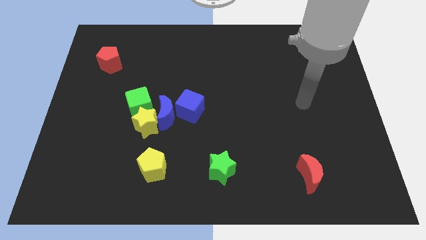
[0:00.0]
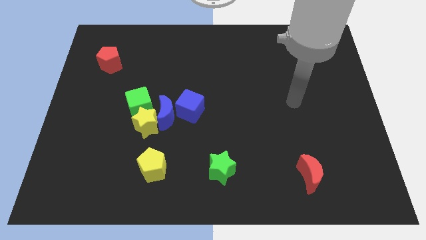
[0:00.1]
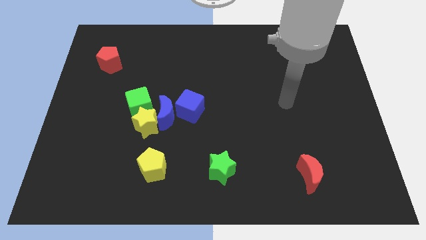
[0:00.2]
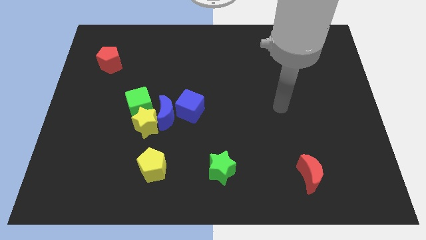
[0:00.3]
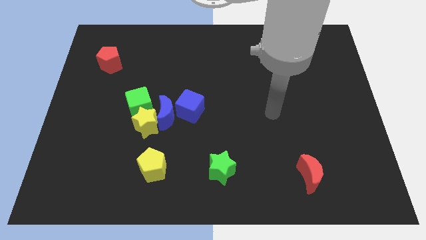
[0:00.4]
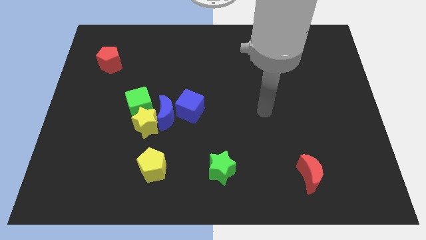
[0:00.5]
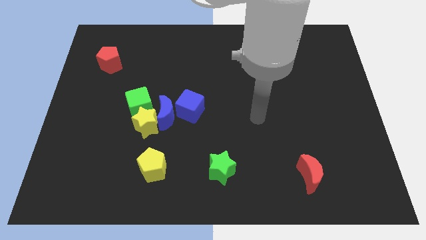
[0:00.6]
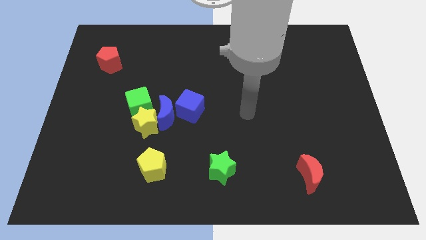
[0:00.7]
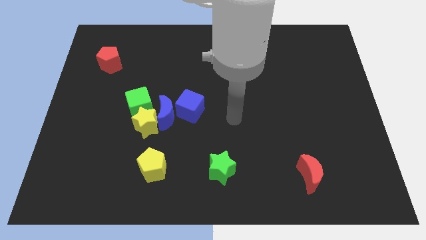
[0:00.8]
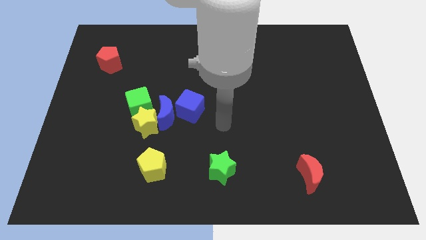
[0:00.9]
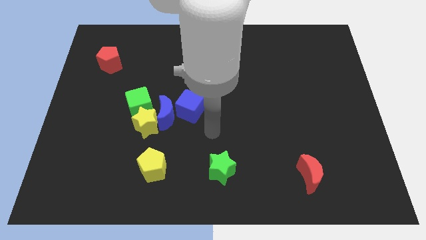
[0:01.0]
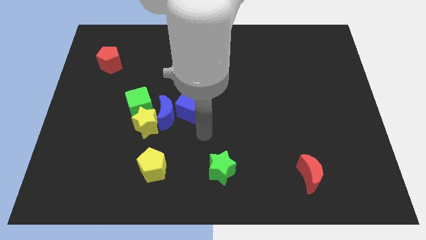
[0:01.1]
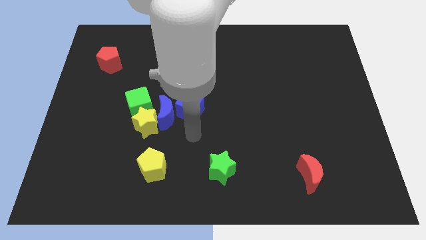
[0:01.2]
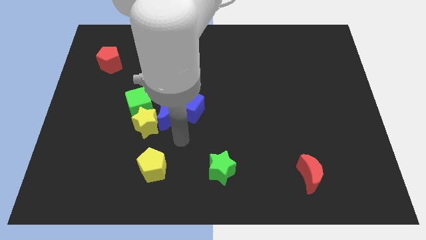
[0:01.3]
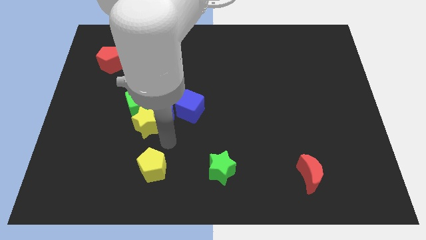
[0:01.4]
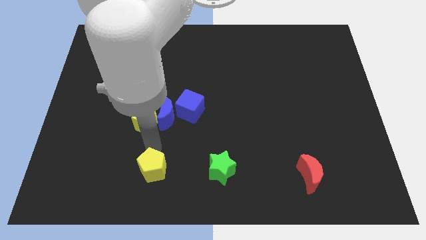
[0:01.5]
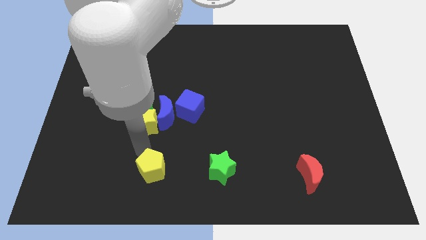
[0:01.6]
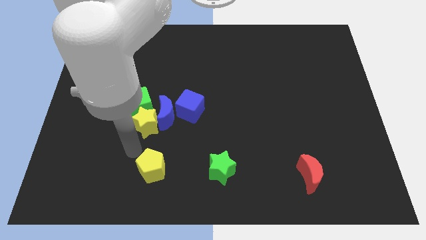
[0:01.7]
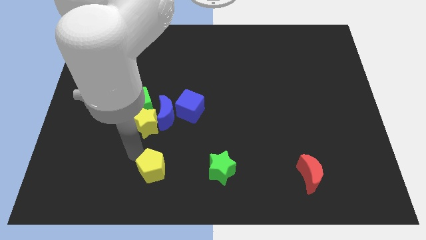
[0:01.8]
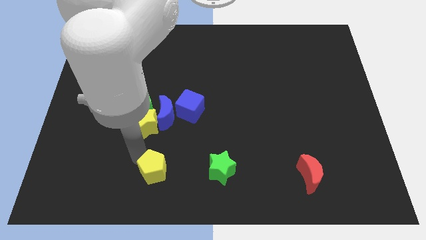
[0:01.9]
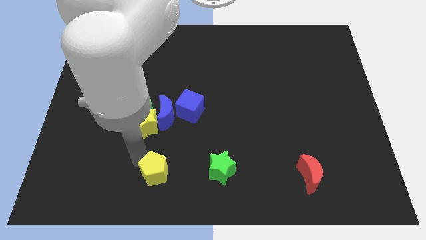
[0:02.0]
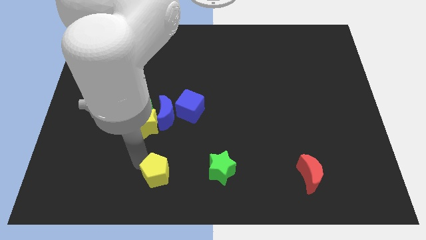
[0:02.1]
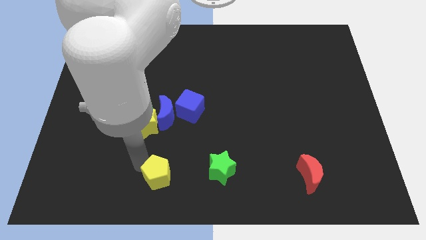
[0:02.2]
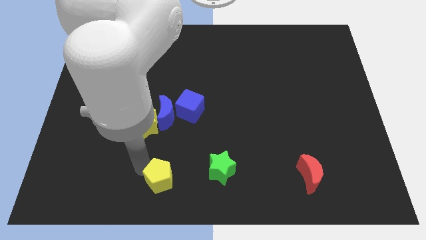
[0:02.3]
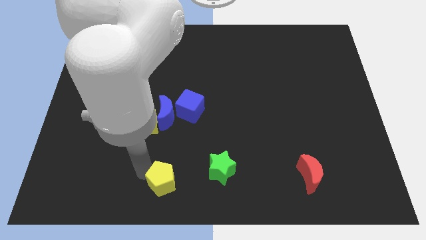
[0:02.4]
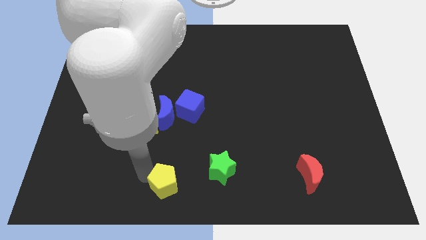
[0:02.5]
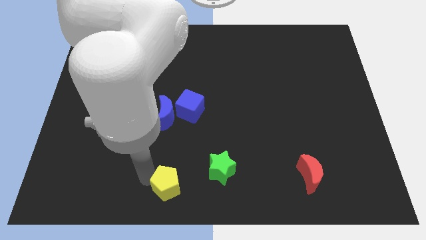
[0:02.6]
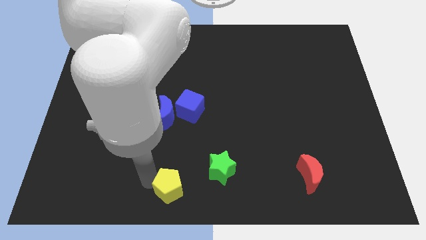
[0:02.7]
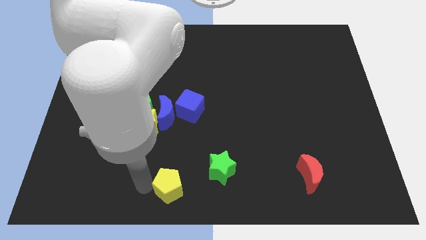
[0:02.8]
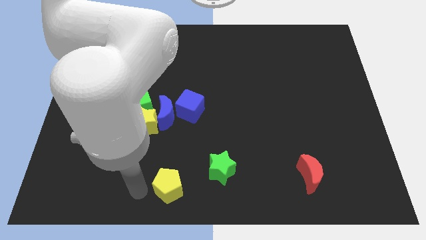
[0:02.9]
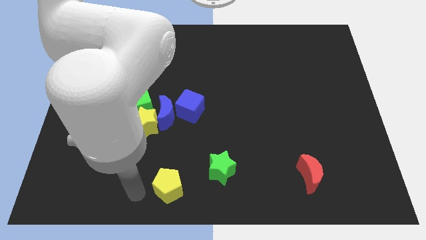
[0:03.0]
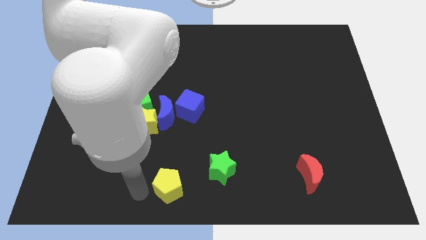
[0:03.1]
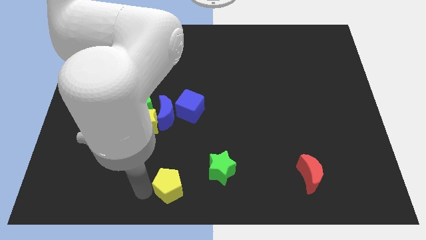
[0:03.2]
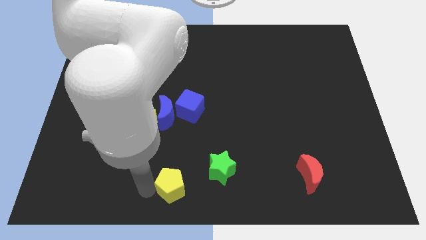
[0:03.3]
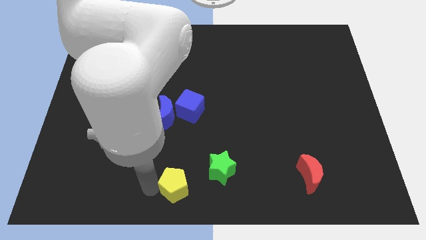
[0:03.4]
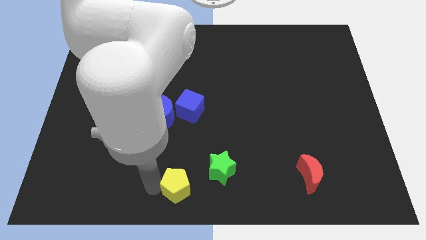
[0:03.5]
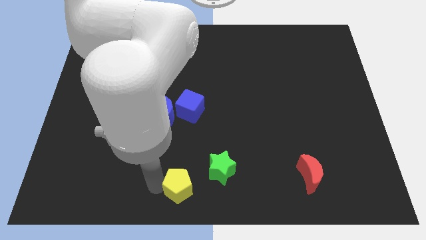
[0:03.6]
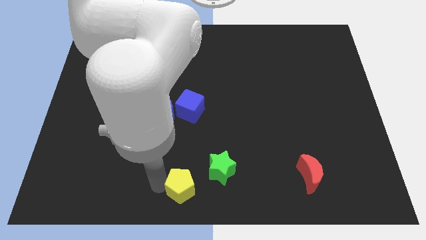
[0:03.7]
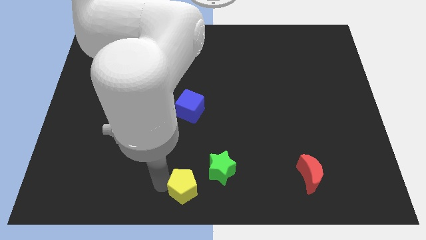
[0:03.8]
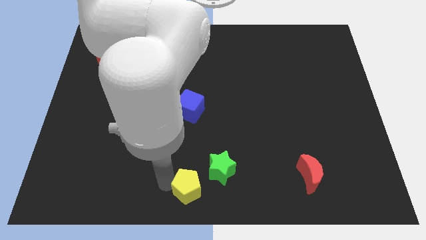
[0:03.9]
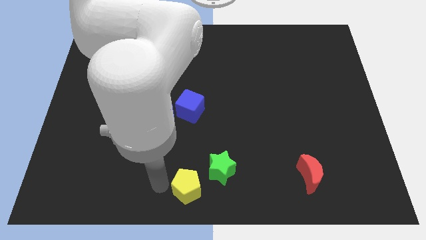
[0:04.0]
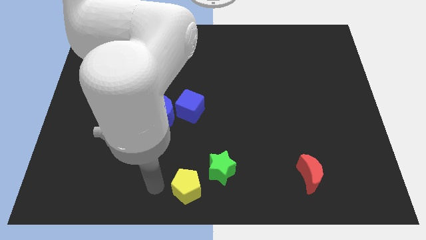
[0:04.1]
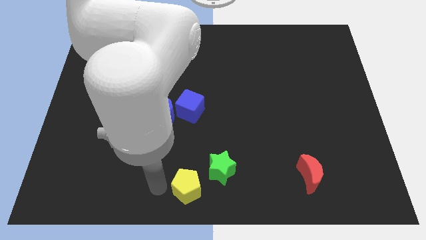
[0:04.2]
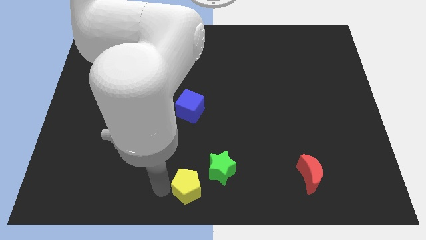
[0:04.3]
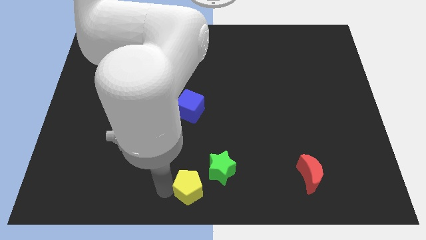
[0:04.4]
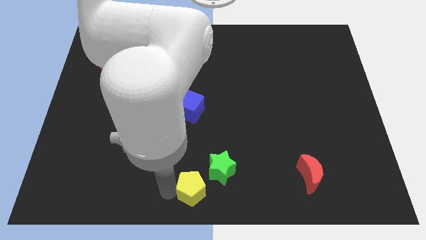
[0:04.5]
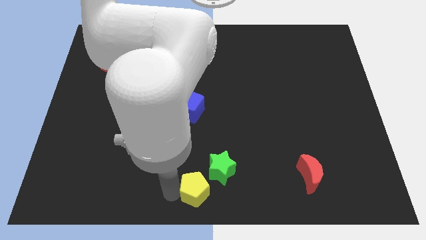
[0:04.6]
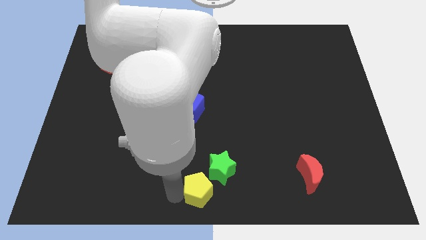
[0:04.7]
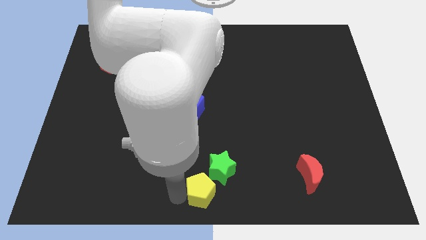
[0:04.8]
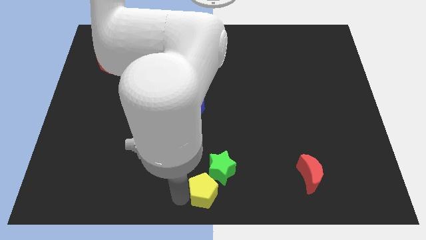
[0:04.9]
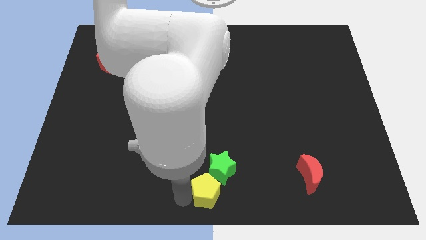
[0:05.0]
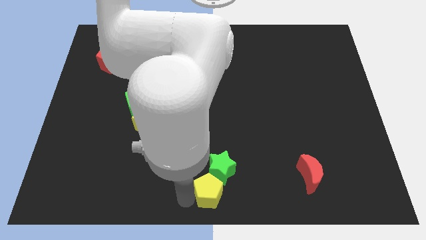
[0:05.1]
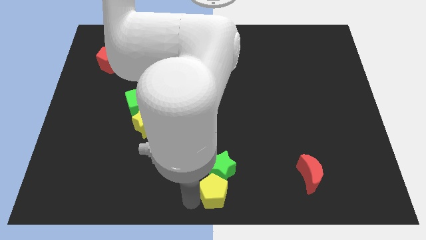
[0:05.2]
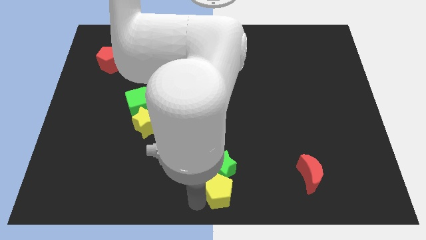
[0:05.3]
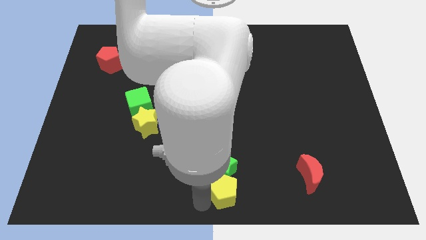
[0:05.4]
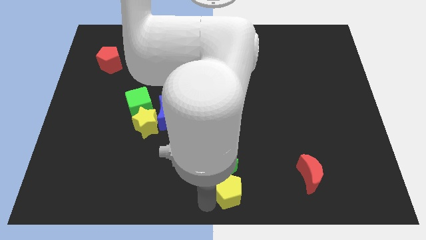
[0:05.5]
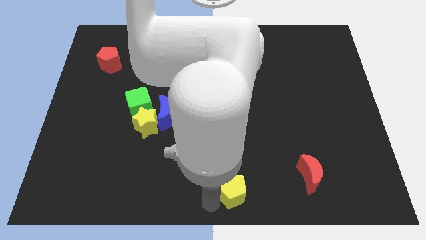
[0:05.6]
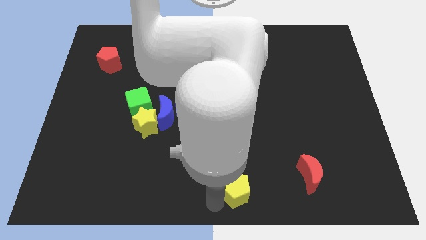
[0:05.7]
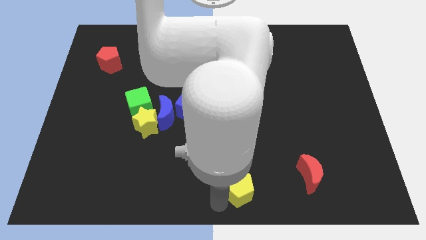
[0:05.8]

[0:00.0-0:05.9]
slide the yellow pentagon just left of the red moon

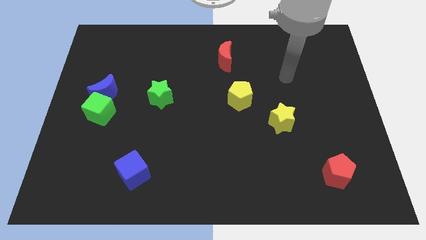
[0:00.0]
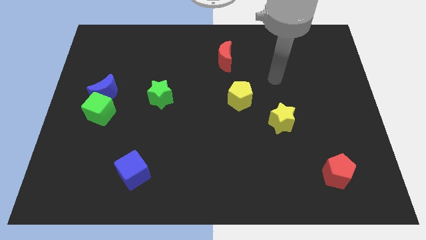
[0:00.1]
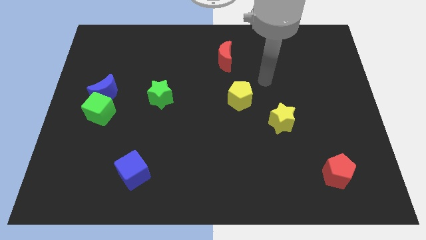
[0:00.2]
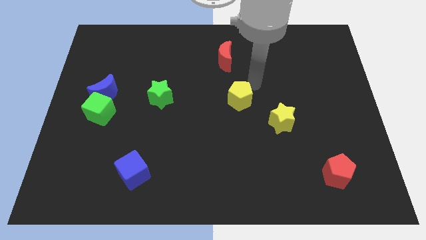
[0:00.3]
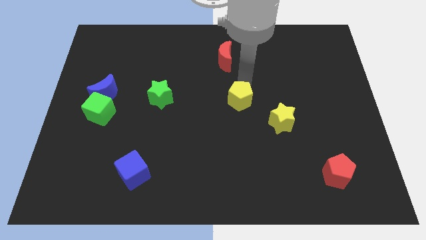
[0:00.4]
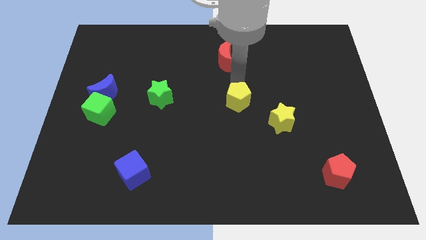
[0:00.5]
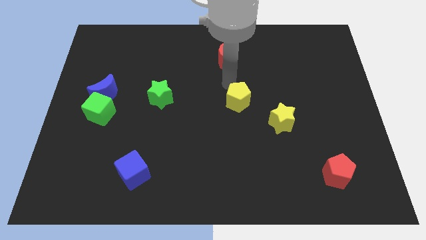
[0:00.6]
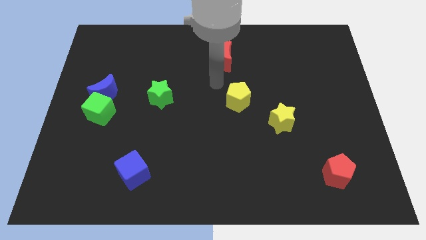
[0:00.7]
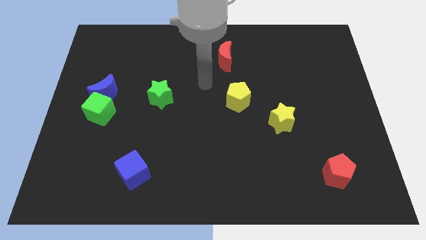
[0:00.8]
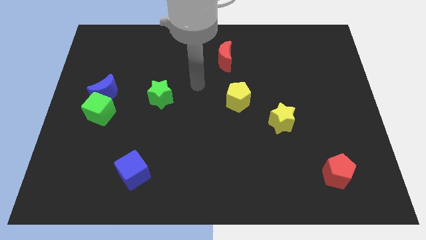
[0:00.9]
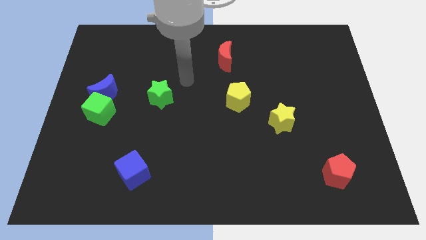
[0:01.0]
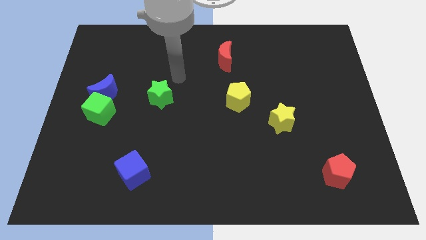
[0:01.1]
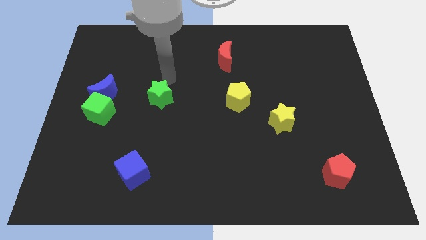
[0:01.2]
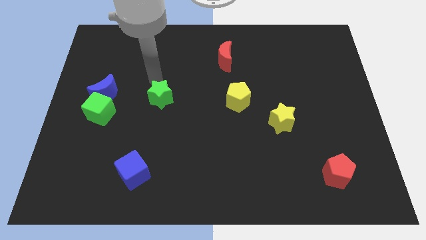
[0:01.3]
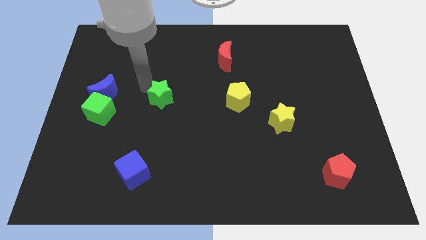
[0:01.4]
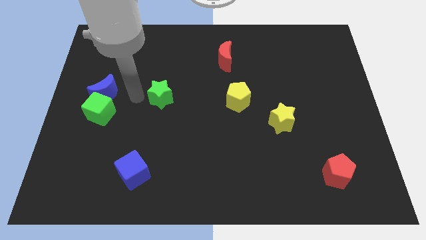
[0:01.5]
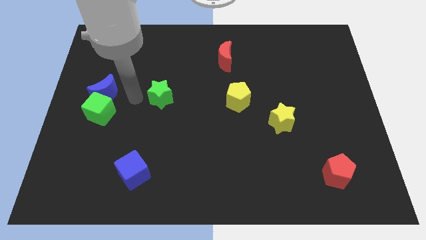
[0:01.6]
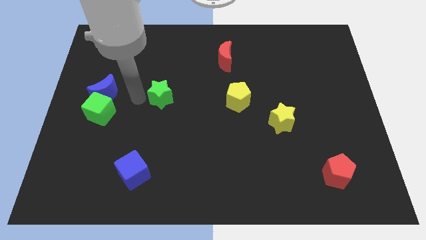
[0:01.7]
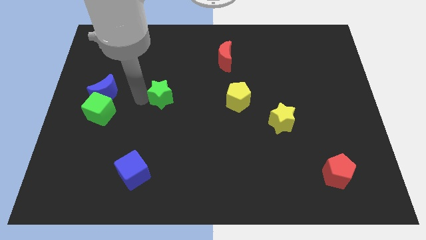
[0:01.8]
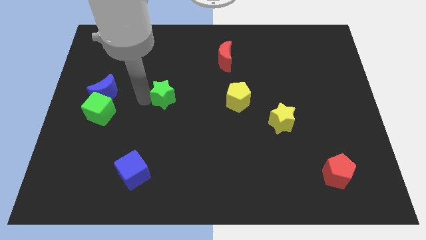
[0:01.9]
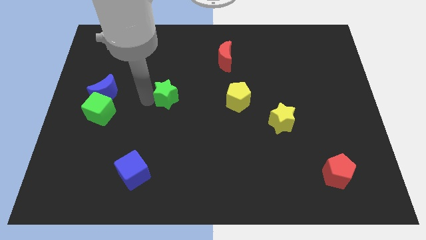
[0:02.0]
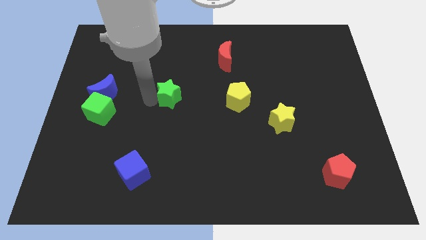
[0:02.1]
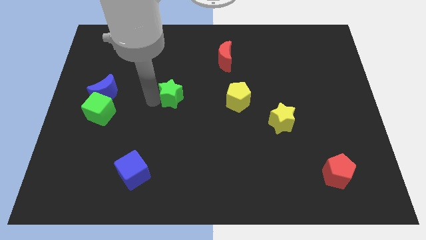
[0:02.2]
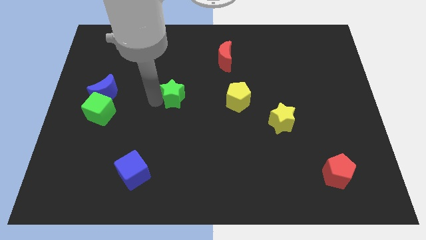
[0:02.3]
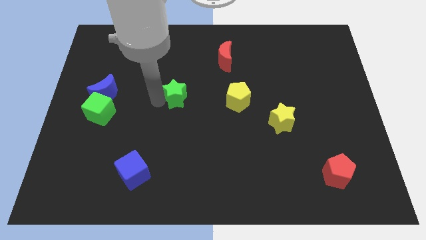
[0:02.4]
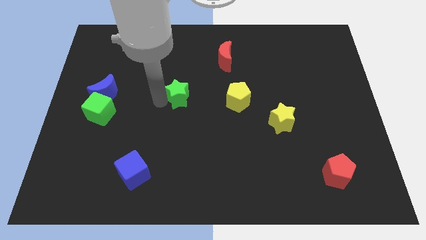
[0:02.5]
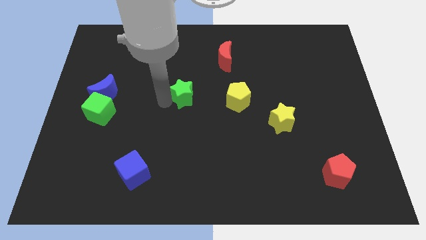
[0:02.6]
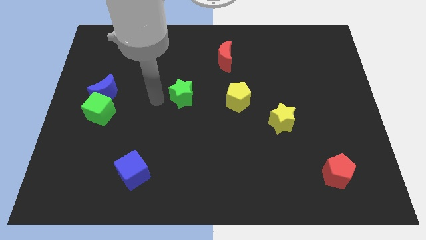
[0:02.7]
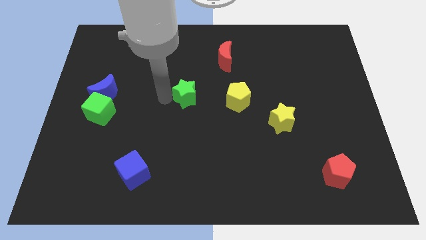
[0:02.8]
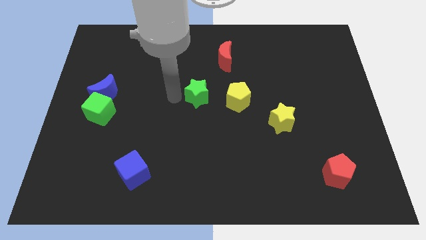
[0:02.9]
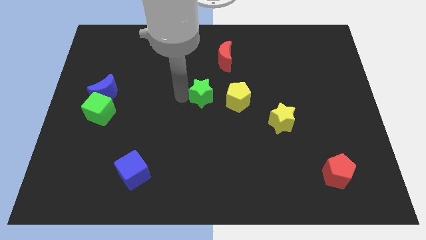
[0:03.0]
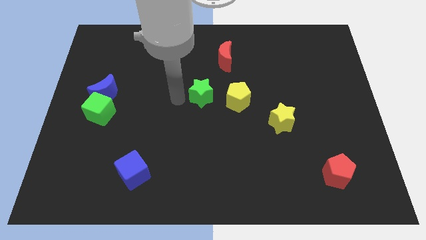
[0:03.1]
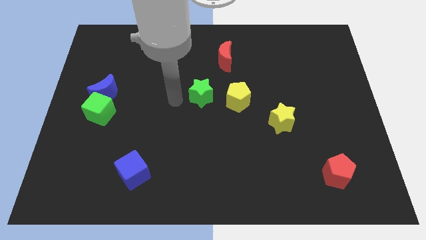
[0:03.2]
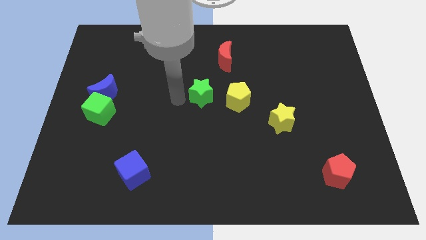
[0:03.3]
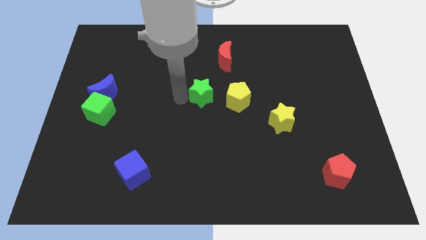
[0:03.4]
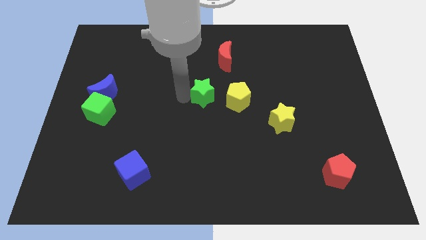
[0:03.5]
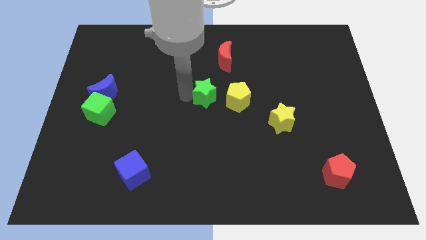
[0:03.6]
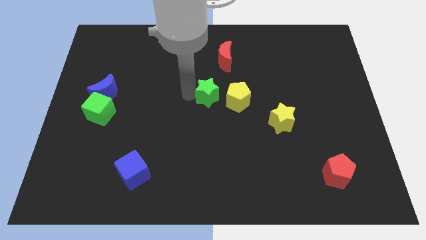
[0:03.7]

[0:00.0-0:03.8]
push the green star to the bottom of the red moon
